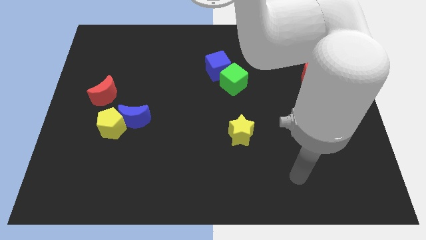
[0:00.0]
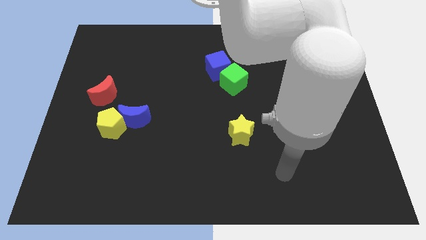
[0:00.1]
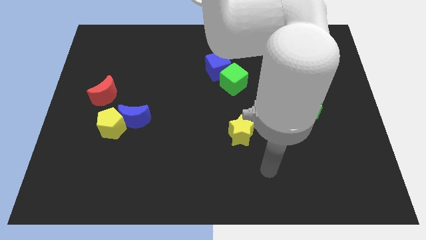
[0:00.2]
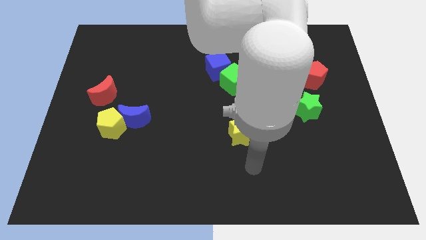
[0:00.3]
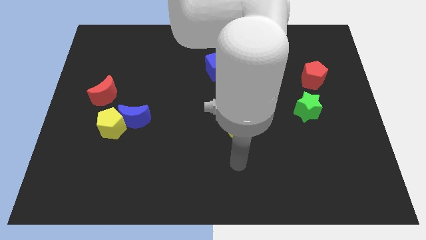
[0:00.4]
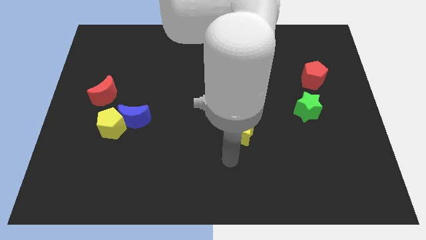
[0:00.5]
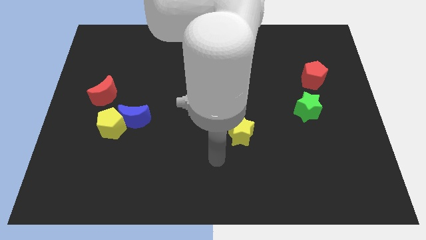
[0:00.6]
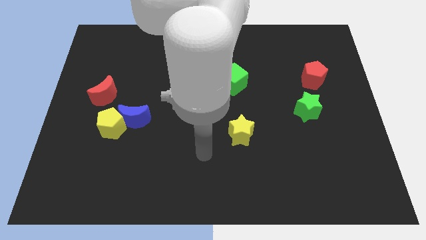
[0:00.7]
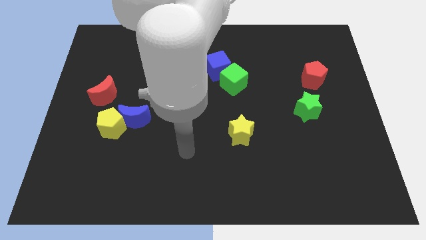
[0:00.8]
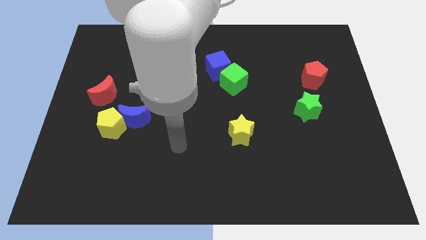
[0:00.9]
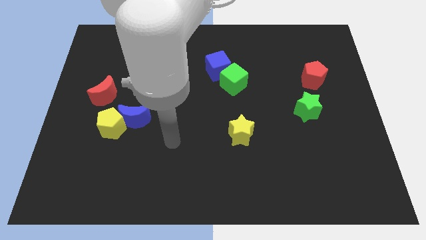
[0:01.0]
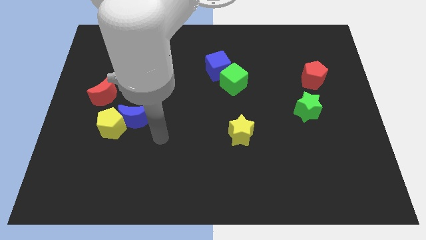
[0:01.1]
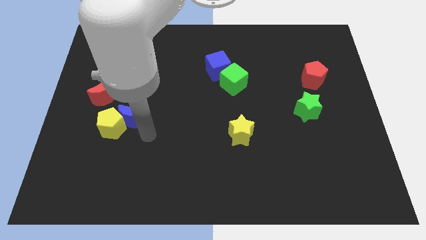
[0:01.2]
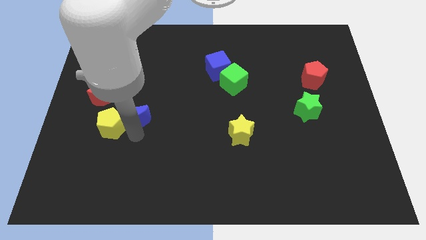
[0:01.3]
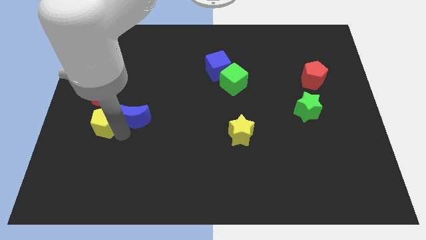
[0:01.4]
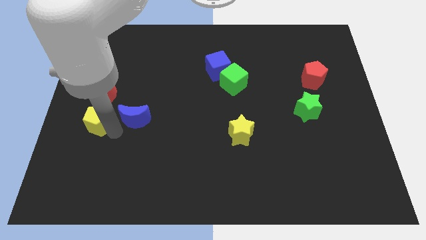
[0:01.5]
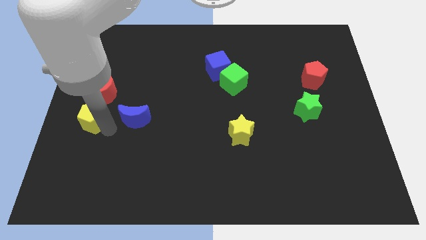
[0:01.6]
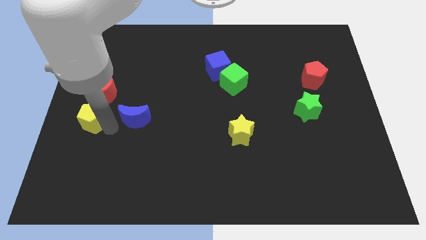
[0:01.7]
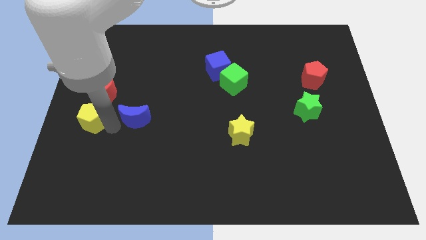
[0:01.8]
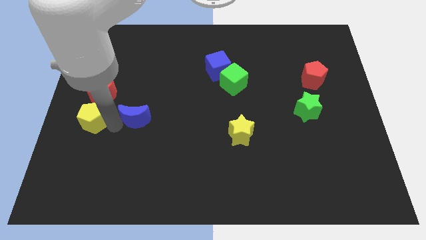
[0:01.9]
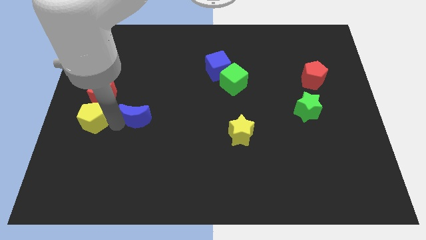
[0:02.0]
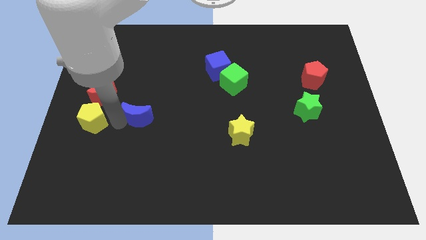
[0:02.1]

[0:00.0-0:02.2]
pull the blue moon apart from the yellow pentagon

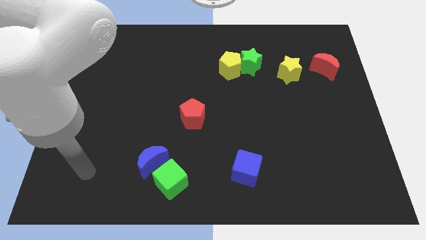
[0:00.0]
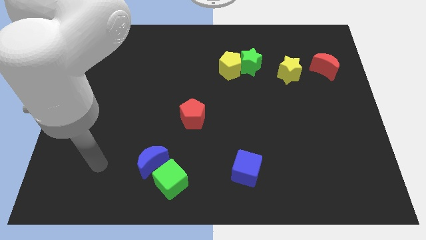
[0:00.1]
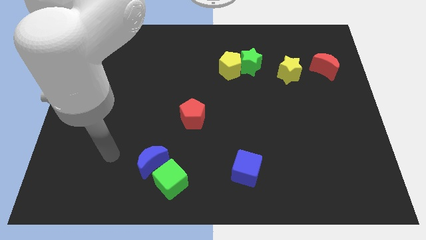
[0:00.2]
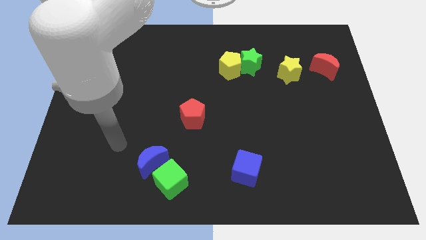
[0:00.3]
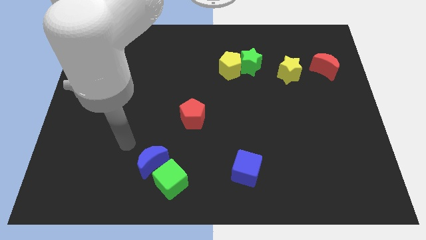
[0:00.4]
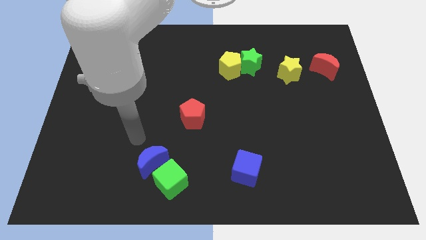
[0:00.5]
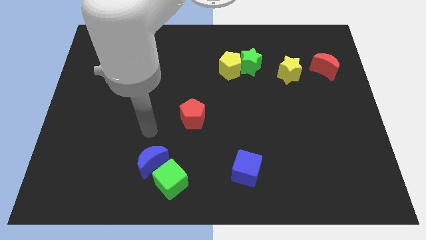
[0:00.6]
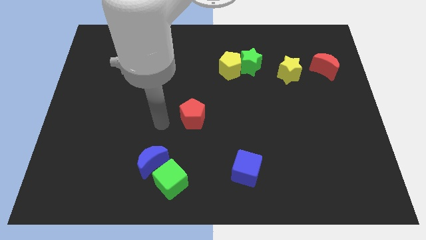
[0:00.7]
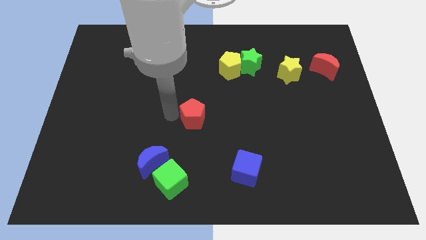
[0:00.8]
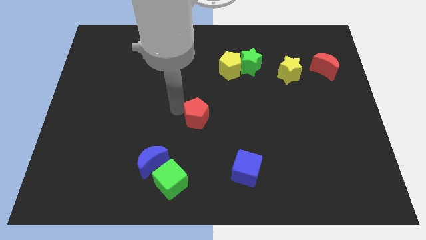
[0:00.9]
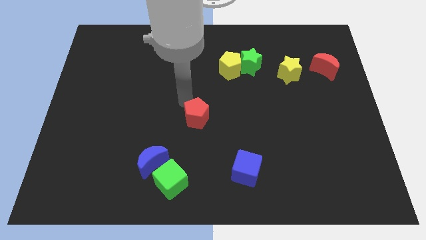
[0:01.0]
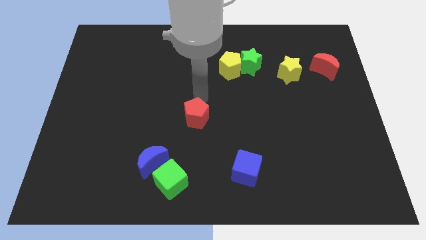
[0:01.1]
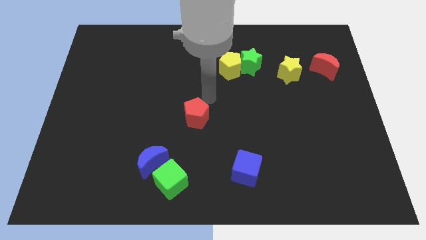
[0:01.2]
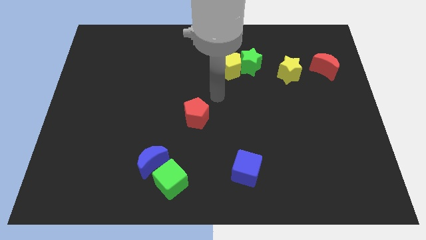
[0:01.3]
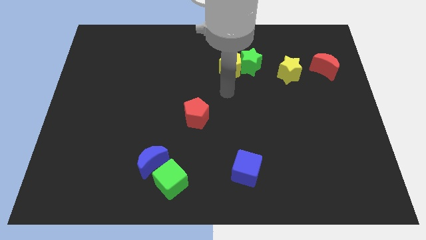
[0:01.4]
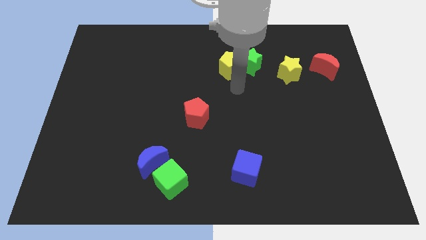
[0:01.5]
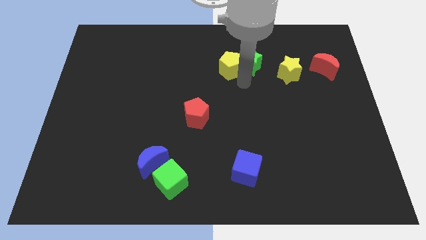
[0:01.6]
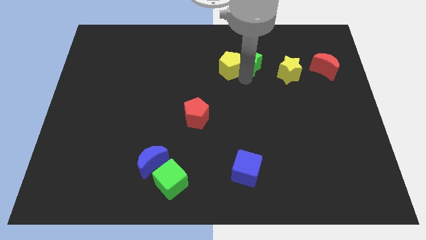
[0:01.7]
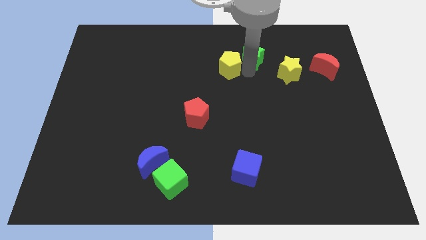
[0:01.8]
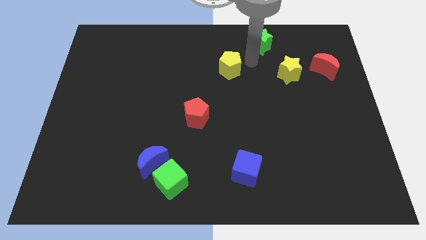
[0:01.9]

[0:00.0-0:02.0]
pull the yellow pentagon apart from the green star

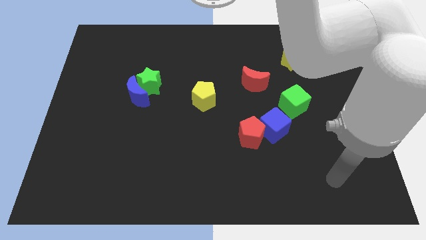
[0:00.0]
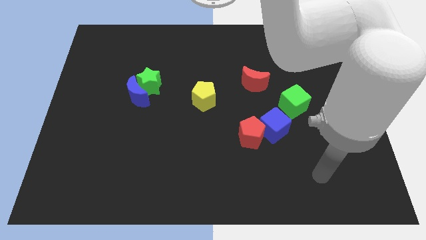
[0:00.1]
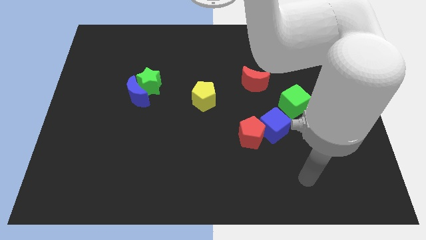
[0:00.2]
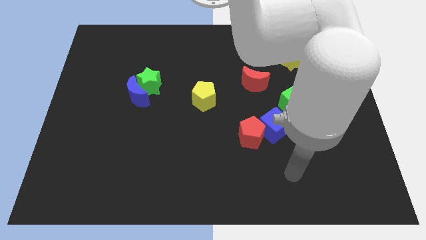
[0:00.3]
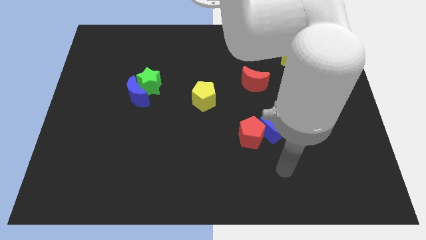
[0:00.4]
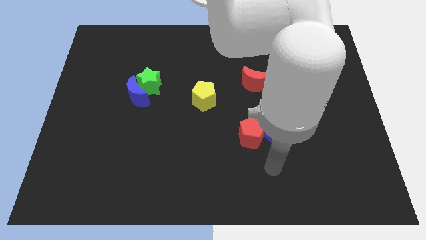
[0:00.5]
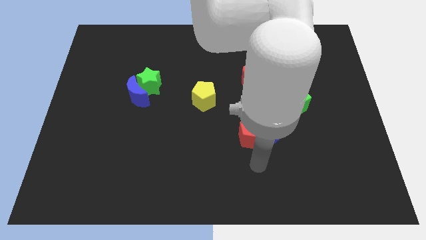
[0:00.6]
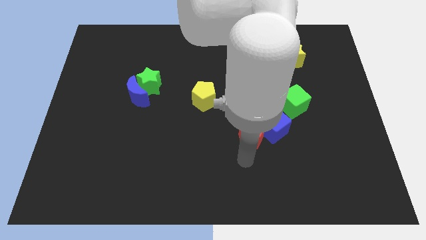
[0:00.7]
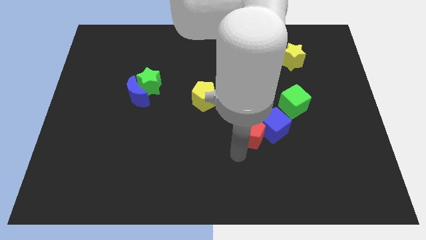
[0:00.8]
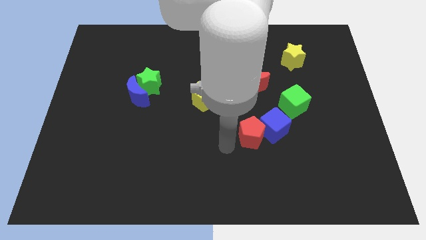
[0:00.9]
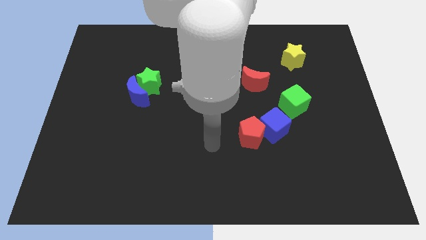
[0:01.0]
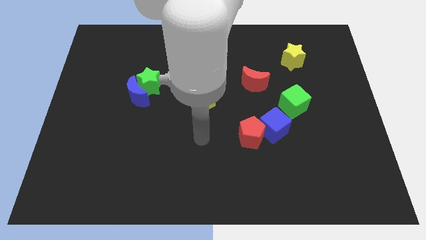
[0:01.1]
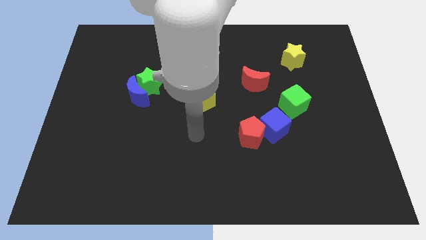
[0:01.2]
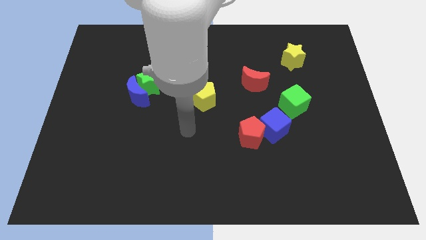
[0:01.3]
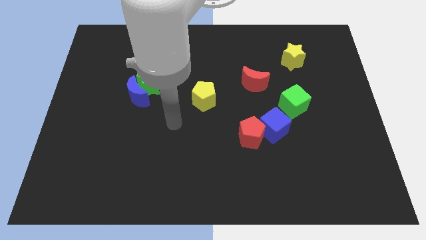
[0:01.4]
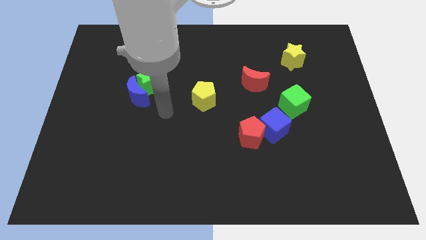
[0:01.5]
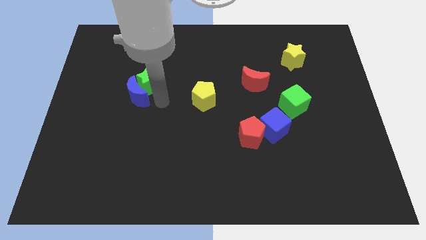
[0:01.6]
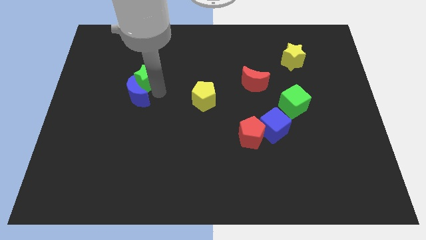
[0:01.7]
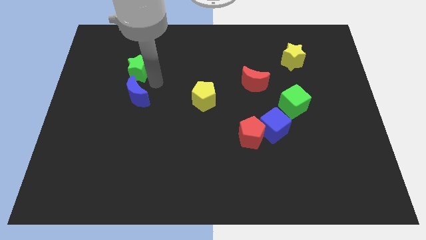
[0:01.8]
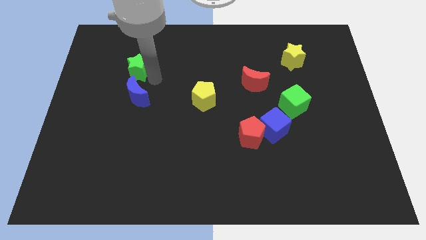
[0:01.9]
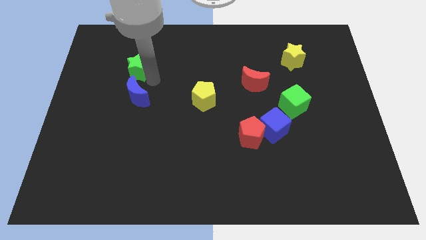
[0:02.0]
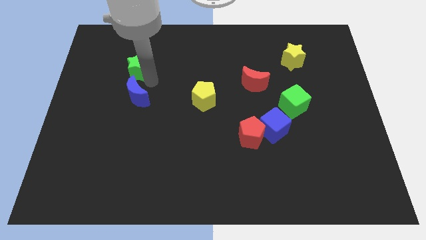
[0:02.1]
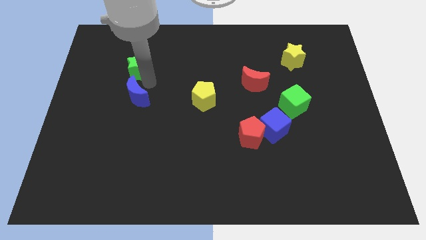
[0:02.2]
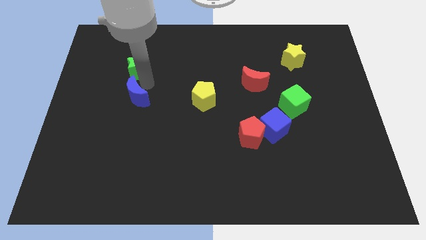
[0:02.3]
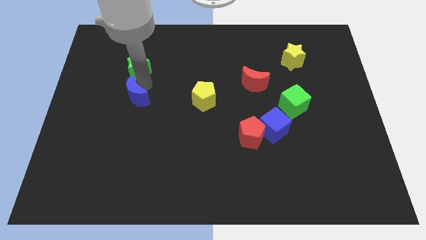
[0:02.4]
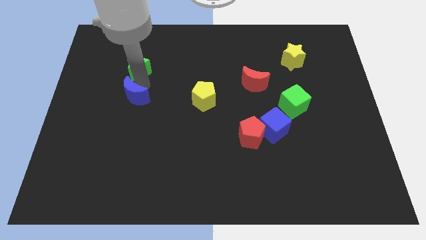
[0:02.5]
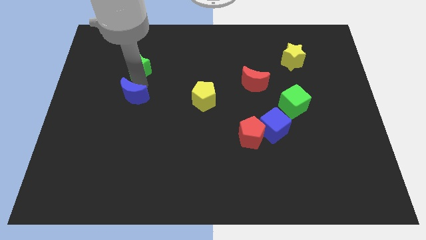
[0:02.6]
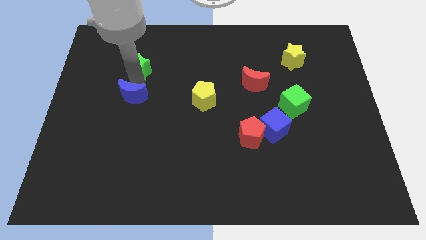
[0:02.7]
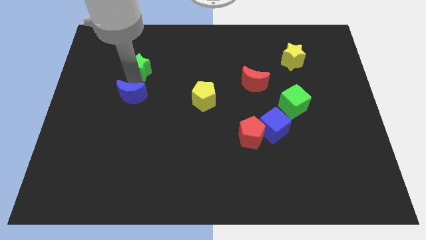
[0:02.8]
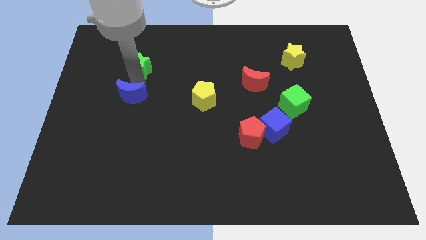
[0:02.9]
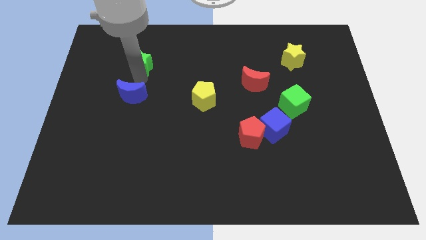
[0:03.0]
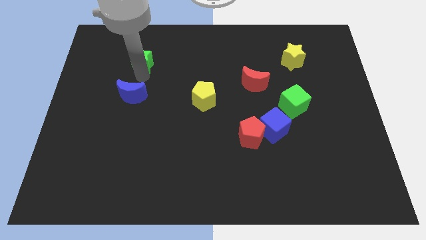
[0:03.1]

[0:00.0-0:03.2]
move the blue moon away from the green star

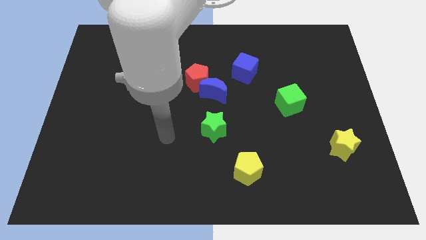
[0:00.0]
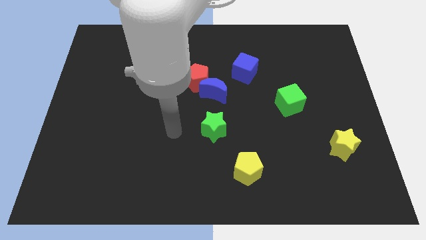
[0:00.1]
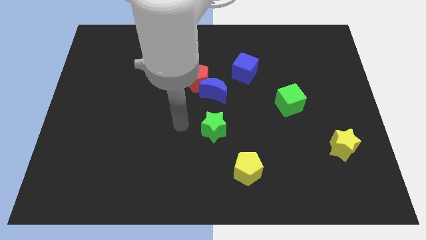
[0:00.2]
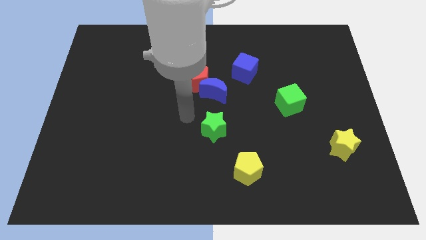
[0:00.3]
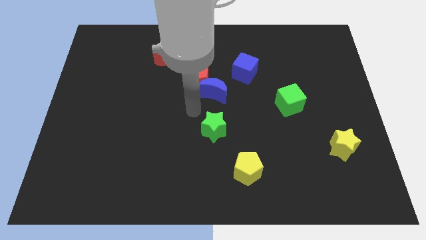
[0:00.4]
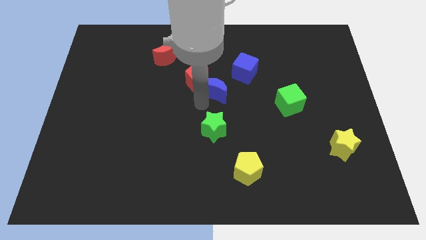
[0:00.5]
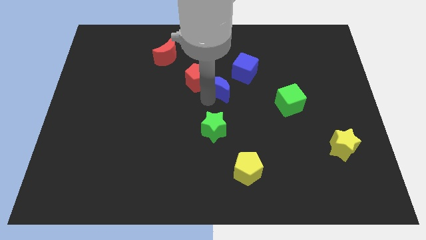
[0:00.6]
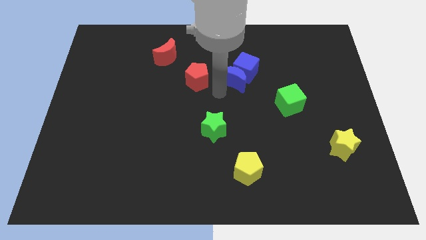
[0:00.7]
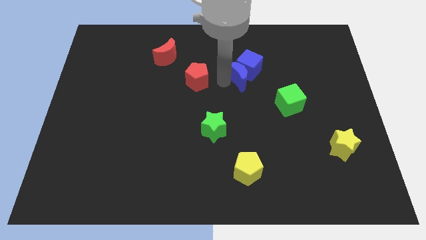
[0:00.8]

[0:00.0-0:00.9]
move the red pentagon away from the blue moon

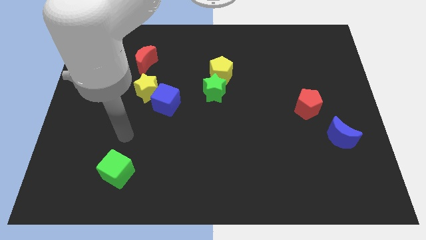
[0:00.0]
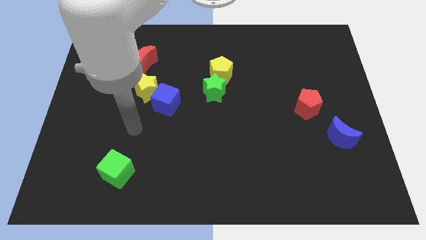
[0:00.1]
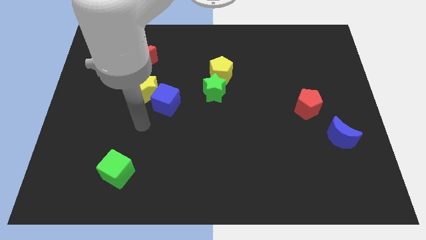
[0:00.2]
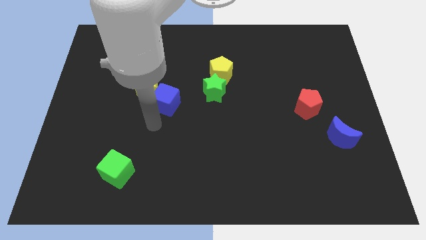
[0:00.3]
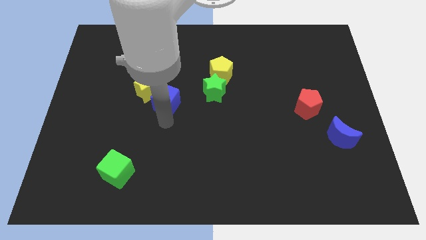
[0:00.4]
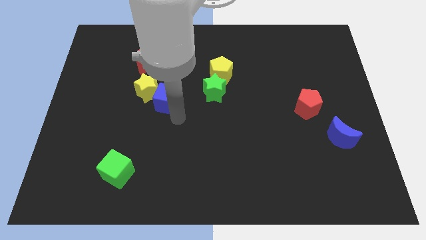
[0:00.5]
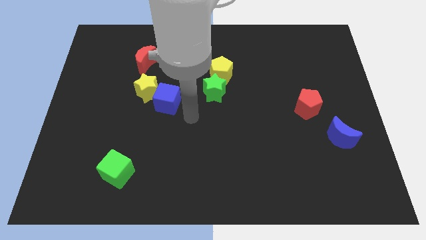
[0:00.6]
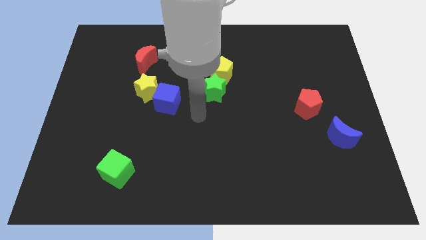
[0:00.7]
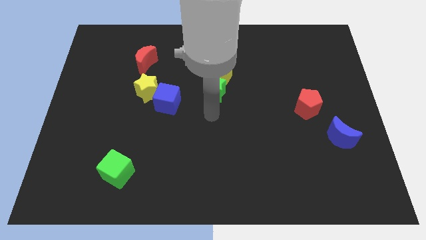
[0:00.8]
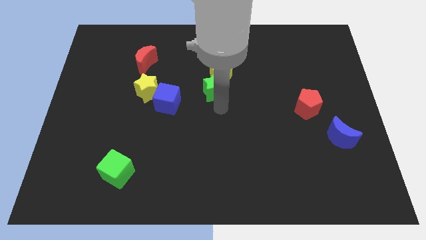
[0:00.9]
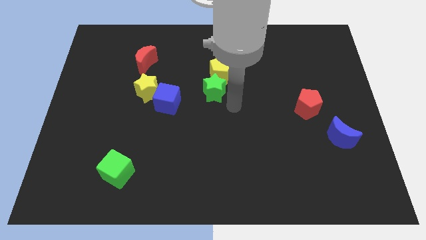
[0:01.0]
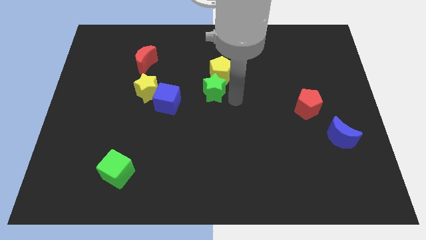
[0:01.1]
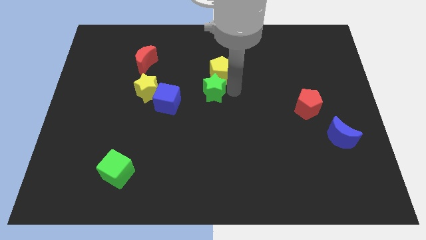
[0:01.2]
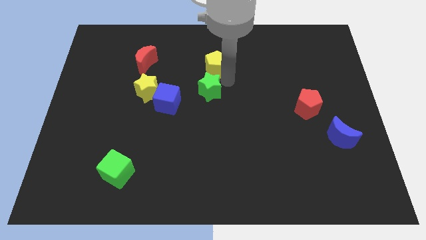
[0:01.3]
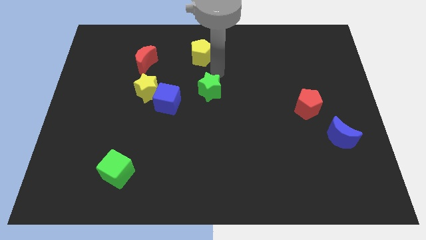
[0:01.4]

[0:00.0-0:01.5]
separate the green star from the yellow pentagon
